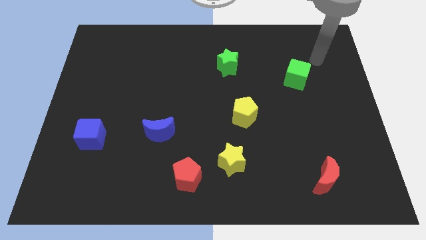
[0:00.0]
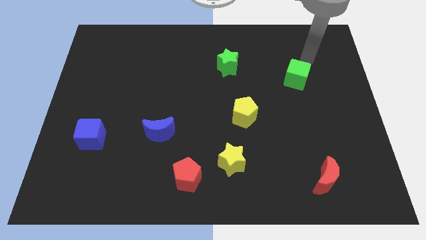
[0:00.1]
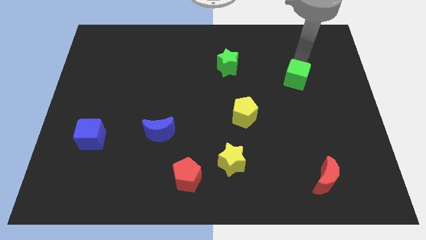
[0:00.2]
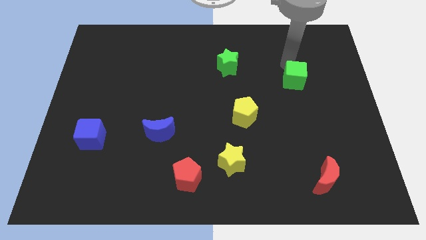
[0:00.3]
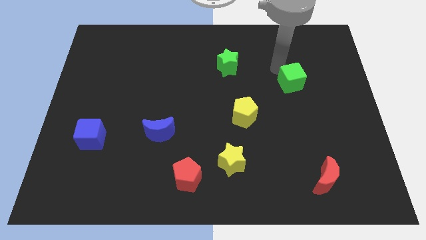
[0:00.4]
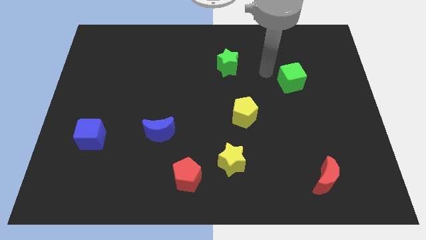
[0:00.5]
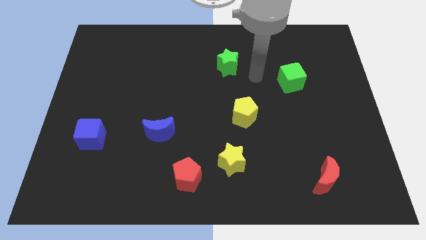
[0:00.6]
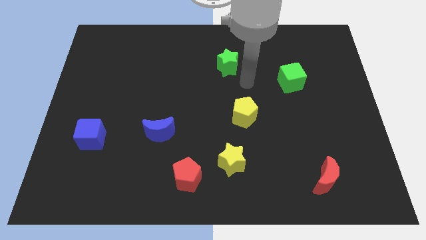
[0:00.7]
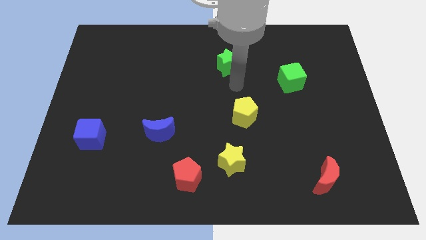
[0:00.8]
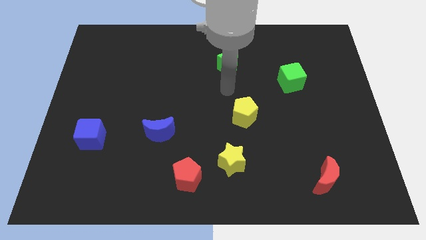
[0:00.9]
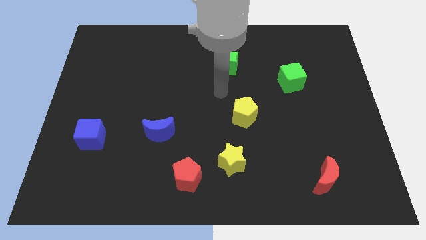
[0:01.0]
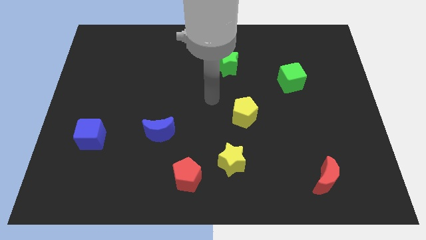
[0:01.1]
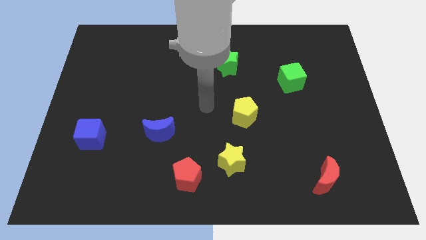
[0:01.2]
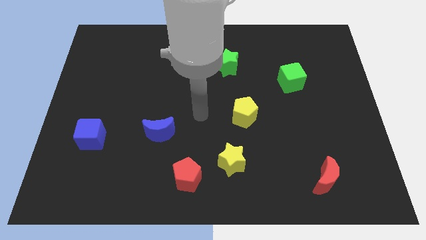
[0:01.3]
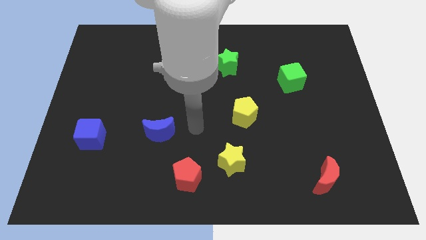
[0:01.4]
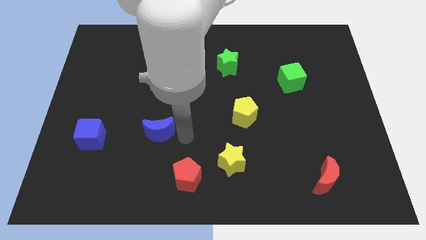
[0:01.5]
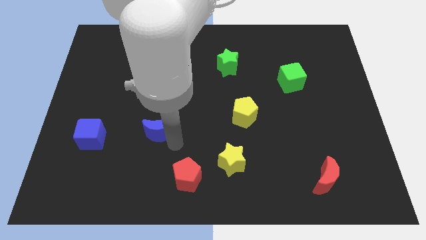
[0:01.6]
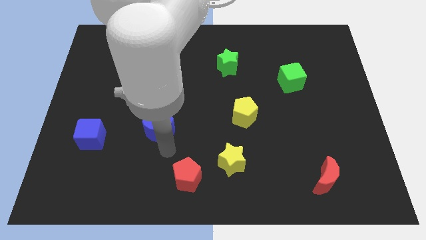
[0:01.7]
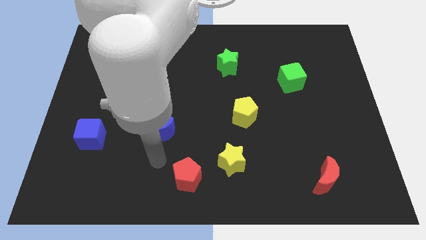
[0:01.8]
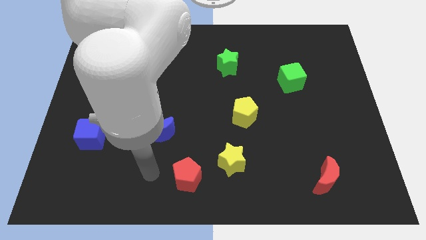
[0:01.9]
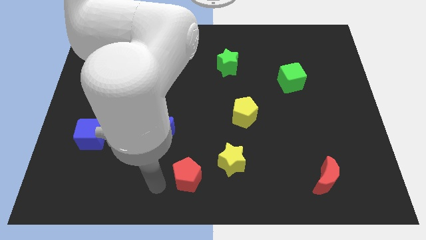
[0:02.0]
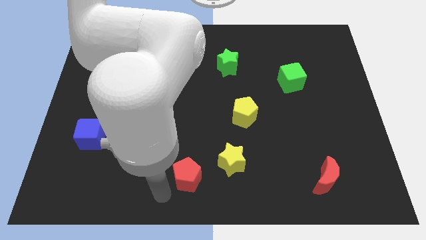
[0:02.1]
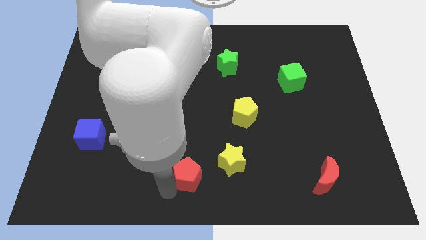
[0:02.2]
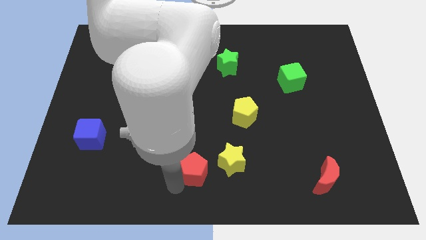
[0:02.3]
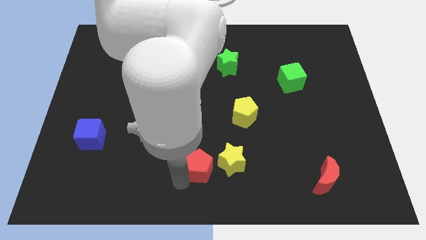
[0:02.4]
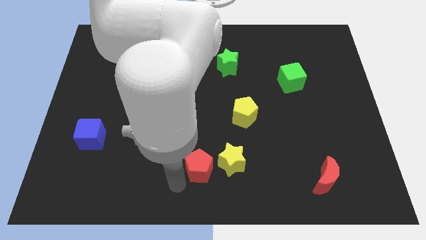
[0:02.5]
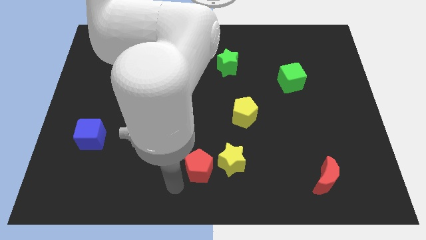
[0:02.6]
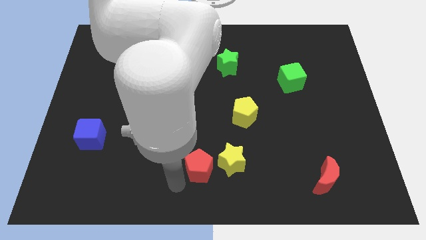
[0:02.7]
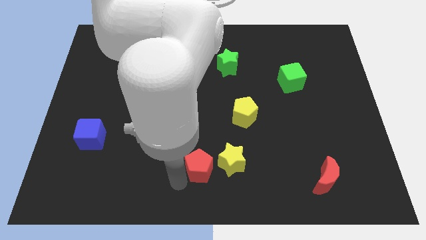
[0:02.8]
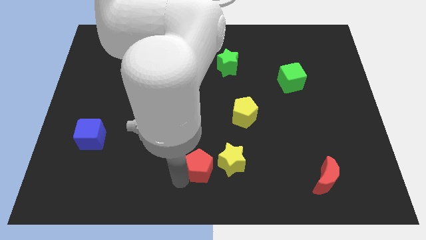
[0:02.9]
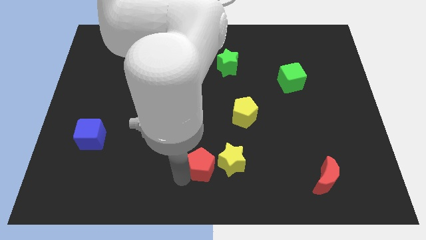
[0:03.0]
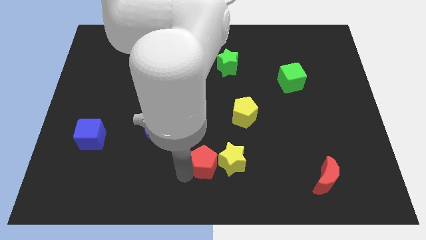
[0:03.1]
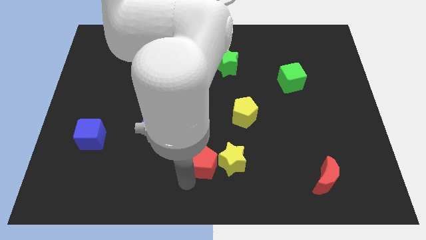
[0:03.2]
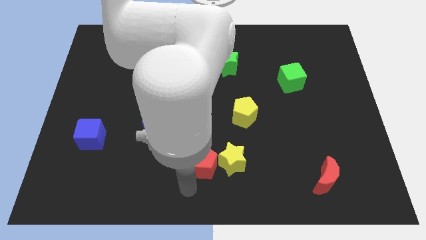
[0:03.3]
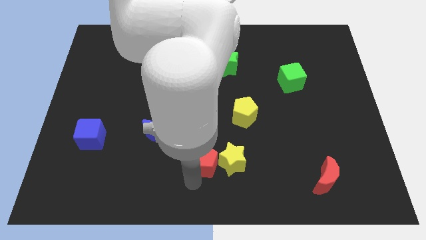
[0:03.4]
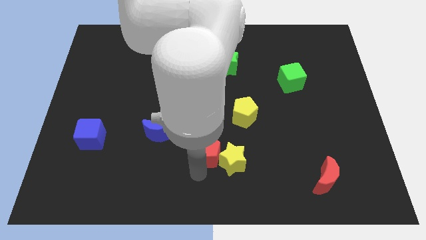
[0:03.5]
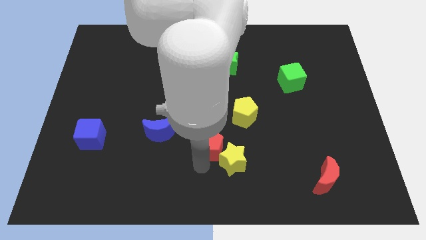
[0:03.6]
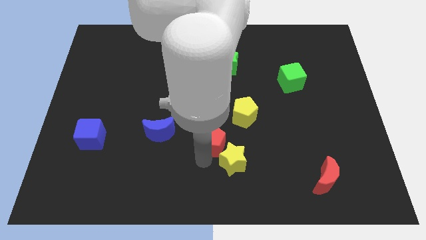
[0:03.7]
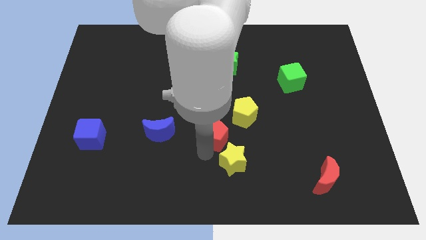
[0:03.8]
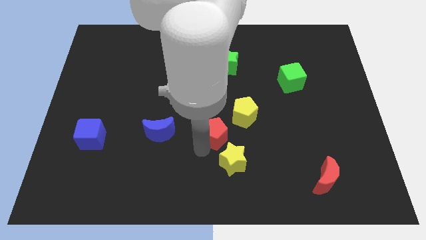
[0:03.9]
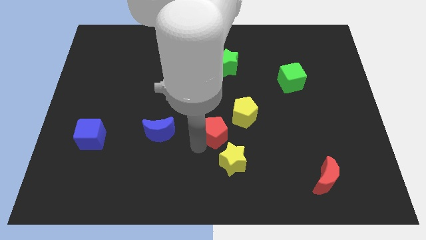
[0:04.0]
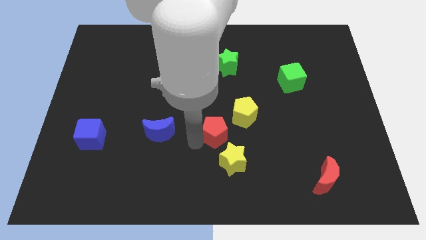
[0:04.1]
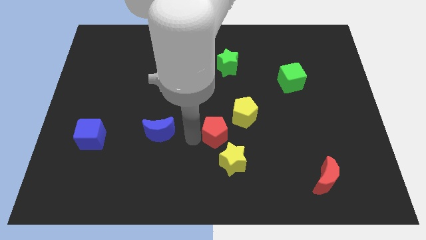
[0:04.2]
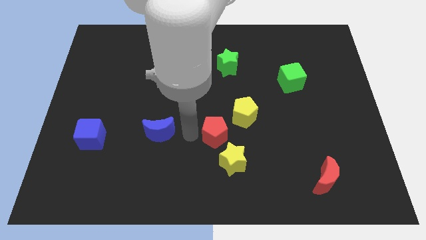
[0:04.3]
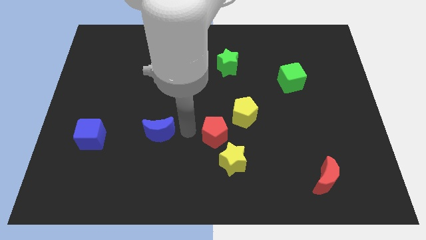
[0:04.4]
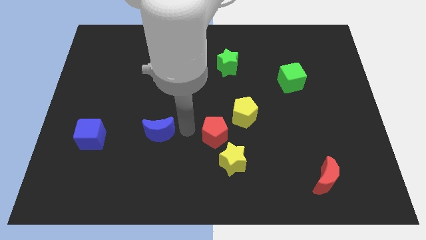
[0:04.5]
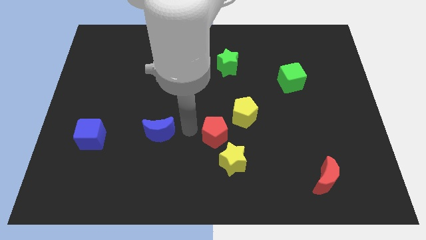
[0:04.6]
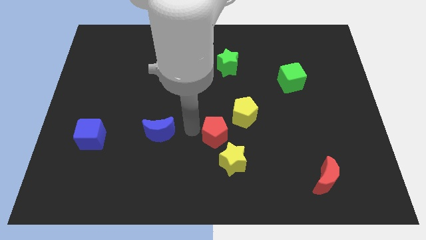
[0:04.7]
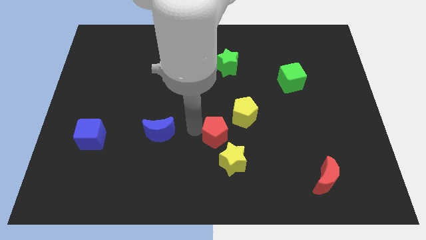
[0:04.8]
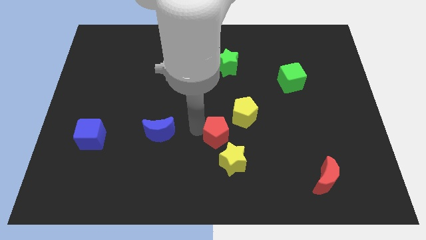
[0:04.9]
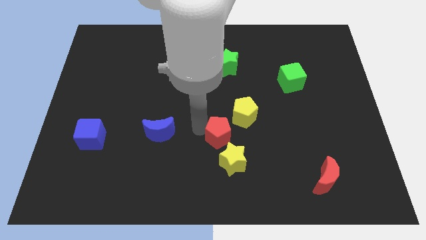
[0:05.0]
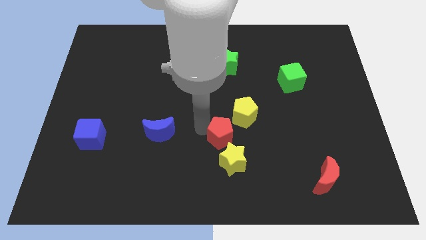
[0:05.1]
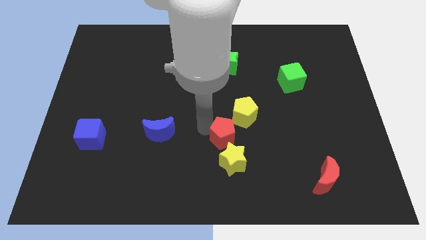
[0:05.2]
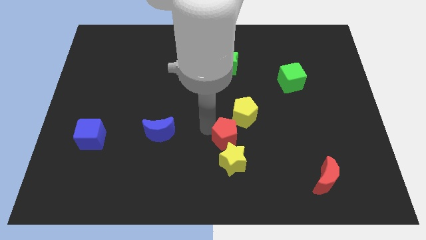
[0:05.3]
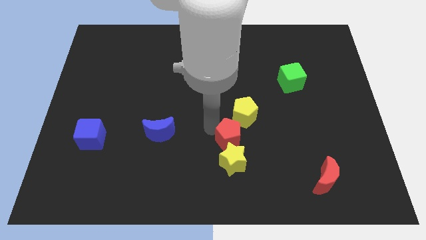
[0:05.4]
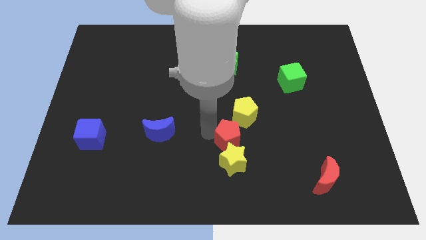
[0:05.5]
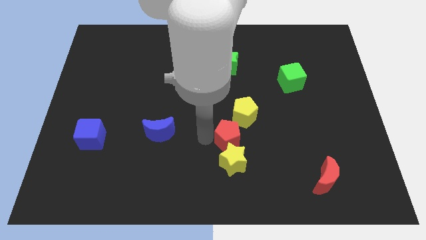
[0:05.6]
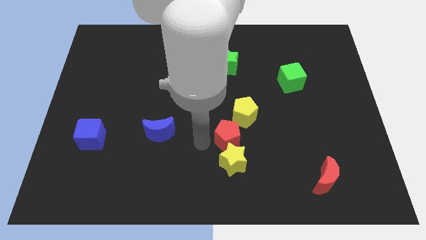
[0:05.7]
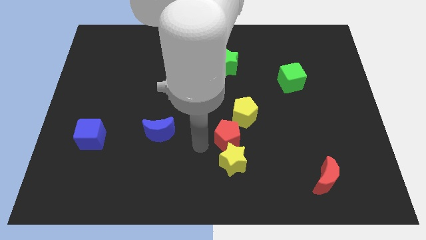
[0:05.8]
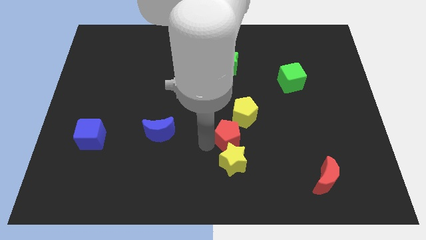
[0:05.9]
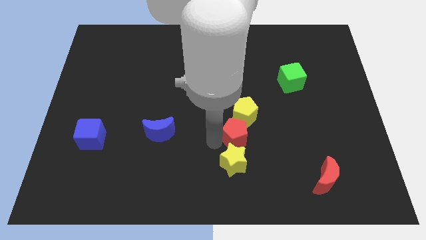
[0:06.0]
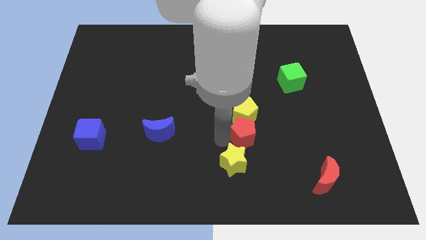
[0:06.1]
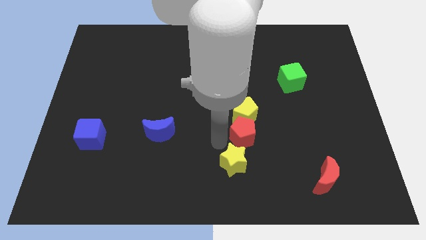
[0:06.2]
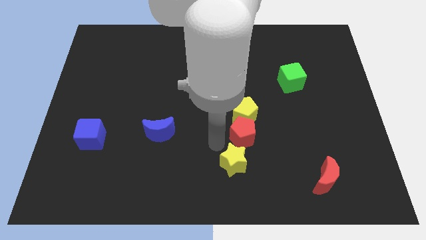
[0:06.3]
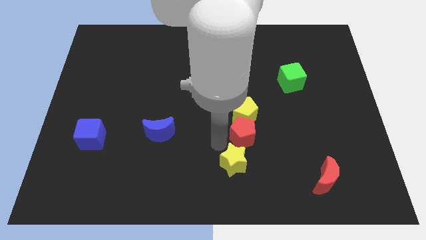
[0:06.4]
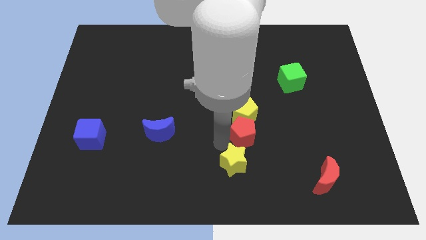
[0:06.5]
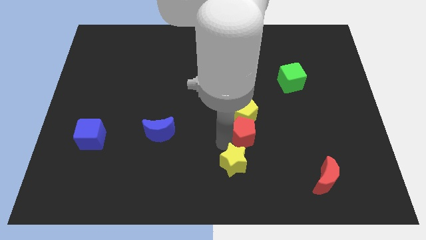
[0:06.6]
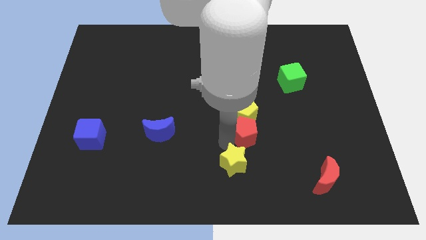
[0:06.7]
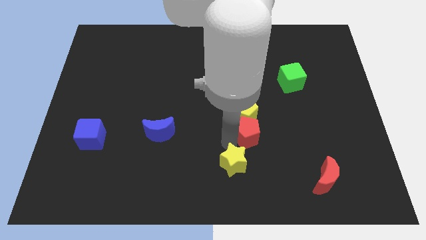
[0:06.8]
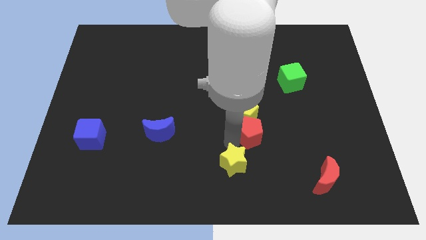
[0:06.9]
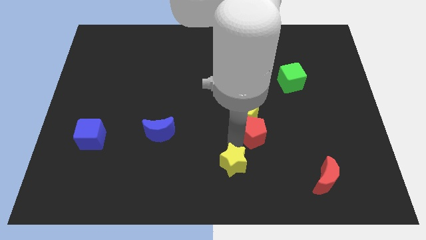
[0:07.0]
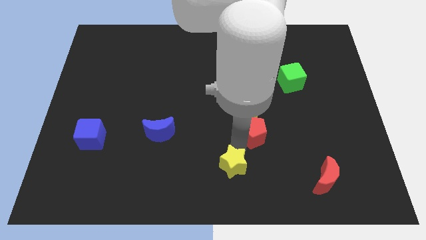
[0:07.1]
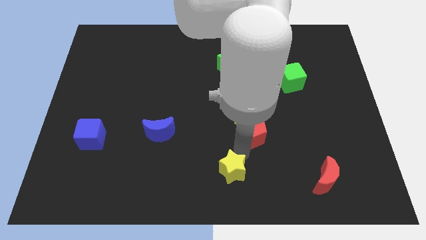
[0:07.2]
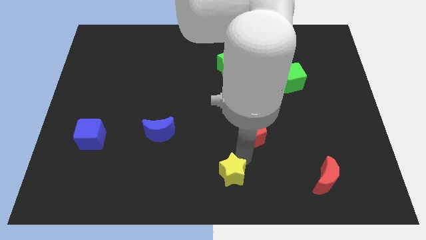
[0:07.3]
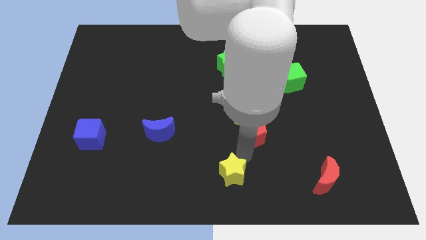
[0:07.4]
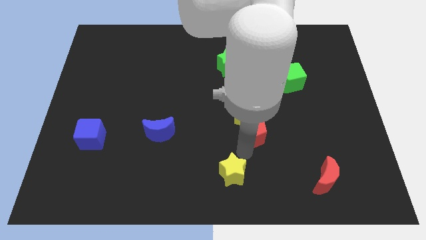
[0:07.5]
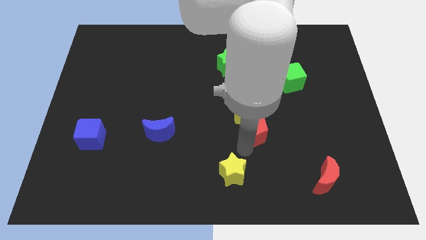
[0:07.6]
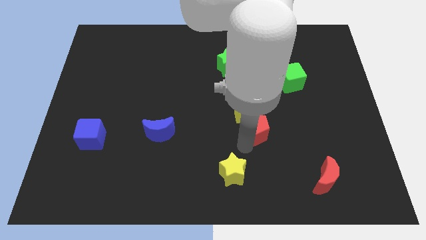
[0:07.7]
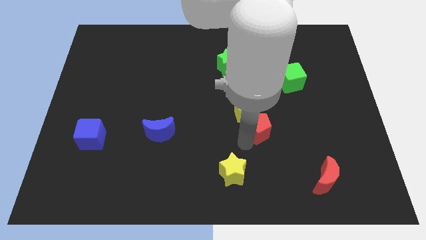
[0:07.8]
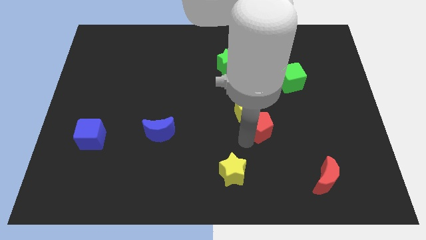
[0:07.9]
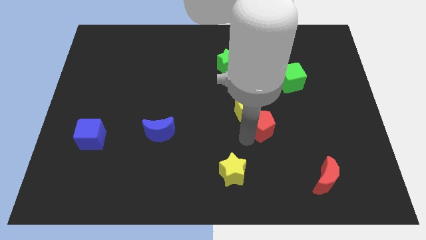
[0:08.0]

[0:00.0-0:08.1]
slide the red pentagon diagonally upwards and right
